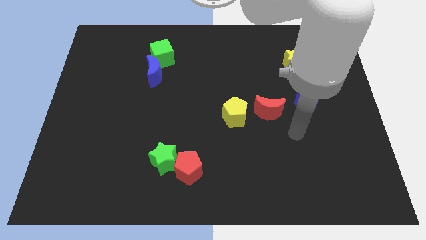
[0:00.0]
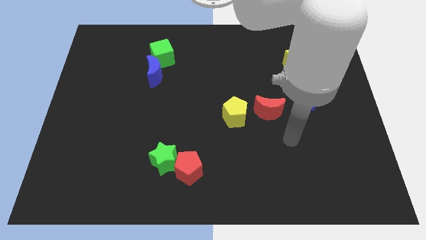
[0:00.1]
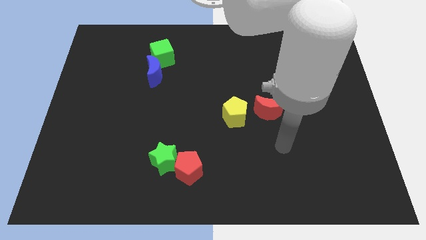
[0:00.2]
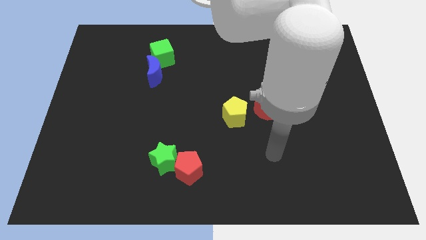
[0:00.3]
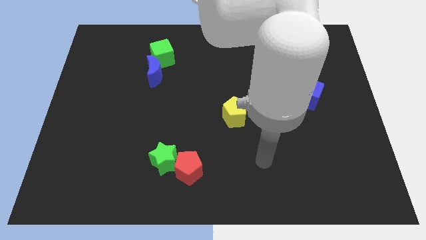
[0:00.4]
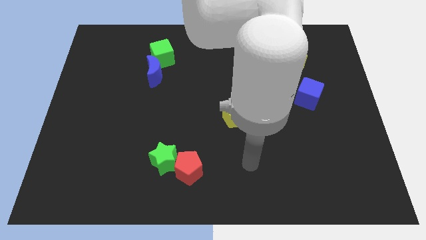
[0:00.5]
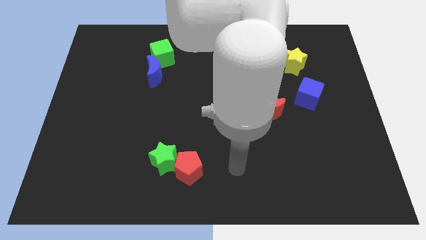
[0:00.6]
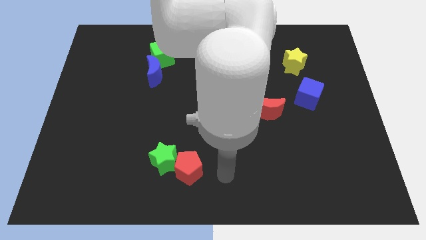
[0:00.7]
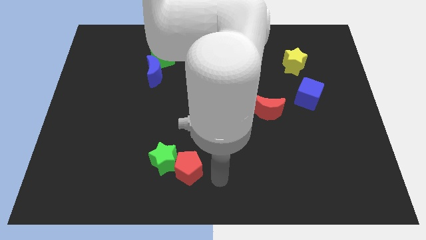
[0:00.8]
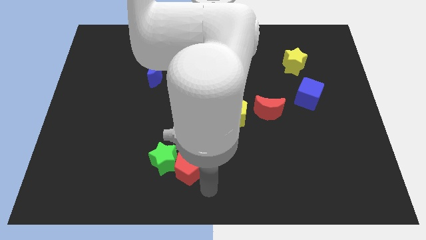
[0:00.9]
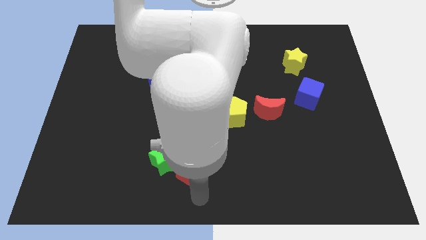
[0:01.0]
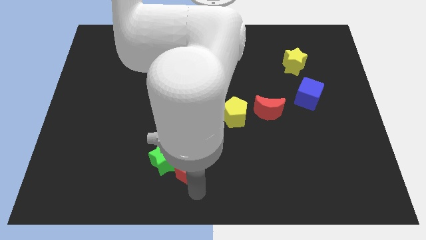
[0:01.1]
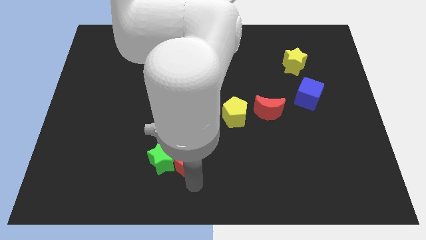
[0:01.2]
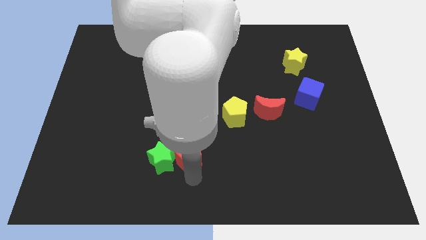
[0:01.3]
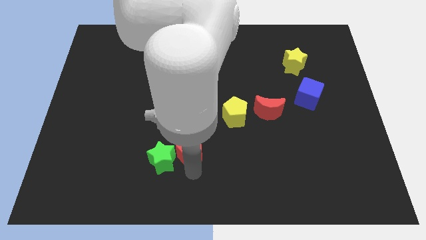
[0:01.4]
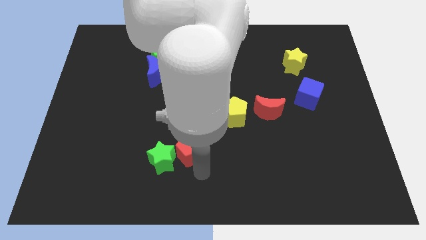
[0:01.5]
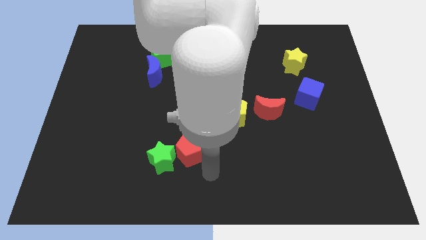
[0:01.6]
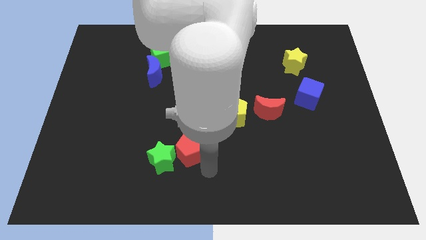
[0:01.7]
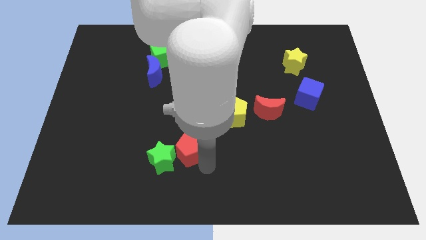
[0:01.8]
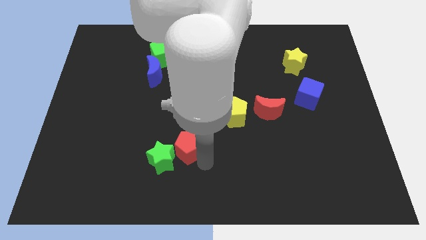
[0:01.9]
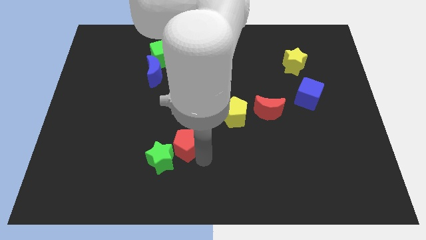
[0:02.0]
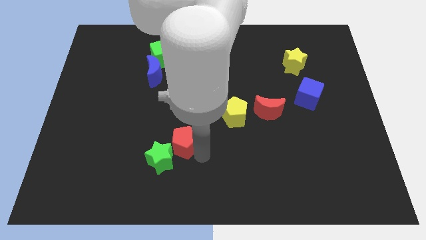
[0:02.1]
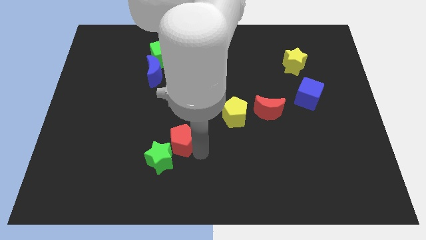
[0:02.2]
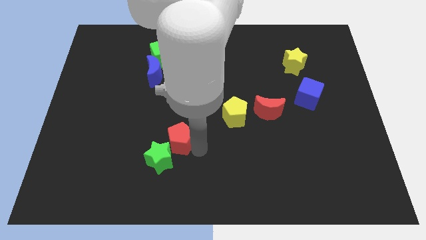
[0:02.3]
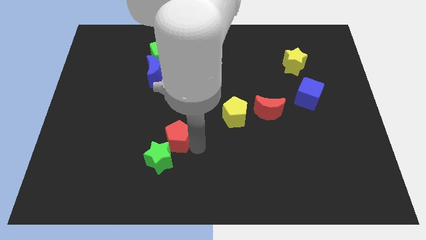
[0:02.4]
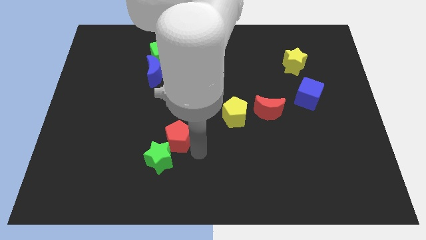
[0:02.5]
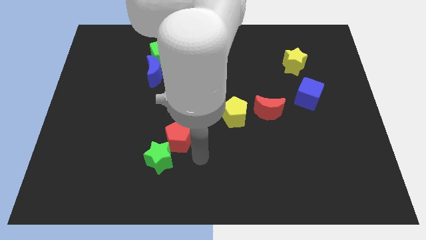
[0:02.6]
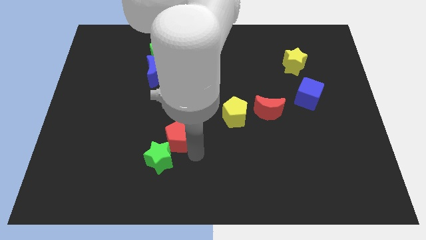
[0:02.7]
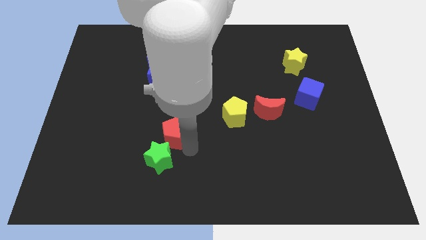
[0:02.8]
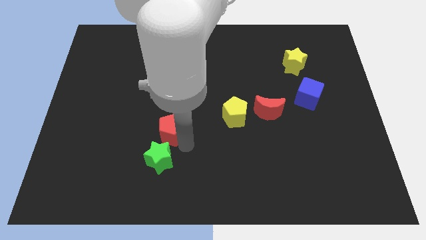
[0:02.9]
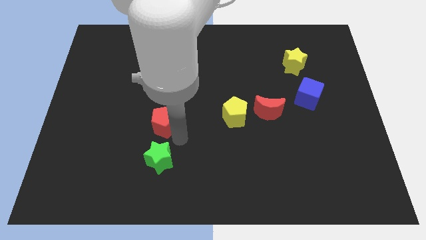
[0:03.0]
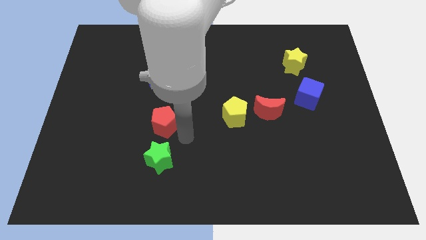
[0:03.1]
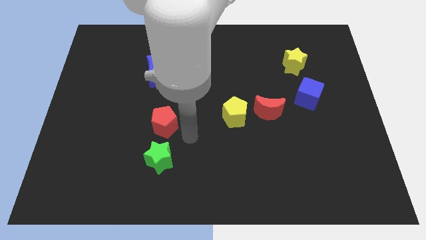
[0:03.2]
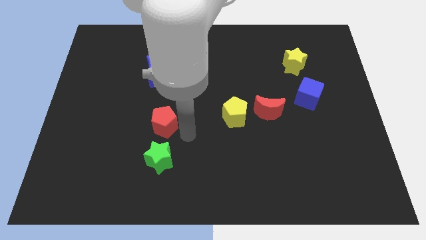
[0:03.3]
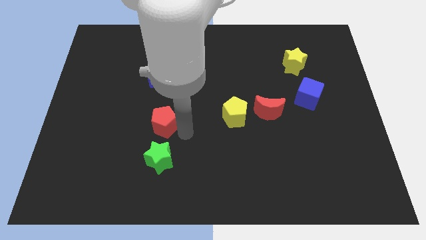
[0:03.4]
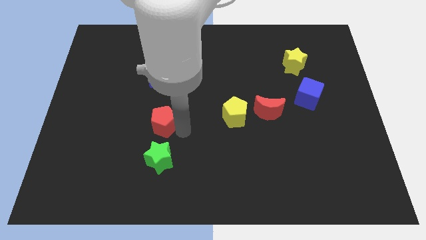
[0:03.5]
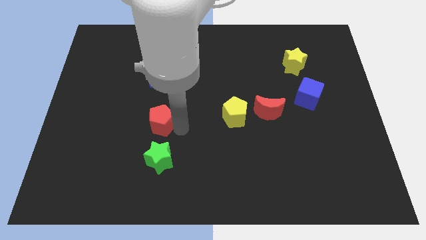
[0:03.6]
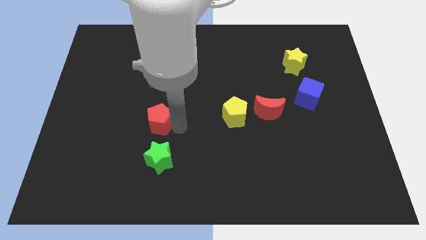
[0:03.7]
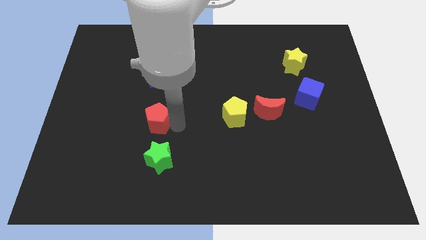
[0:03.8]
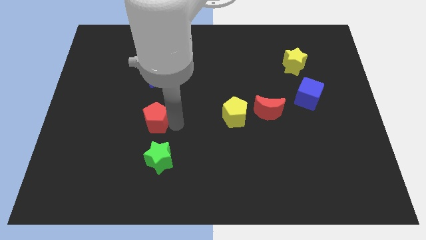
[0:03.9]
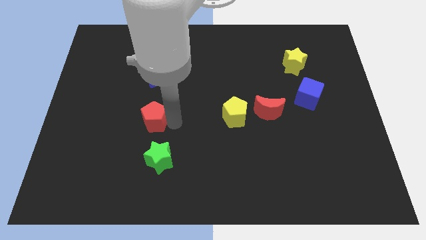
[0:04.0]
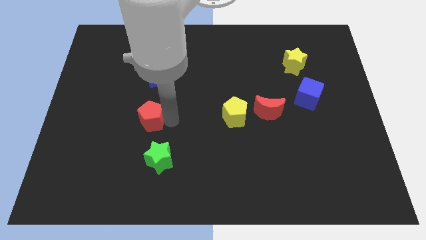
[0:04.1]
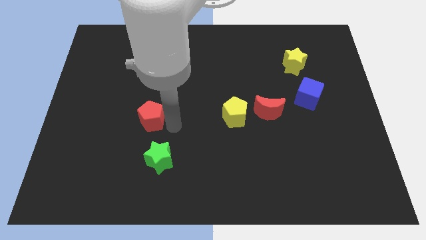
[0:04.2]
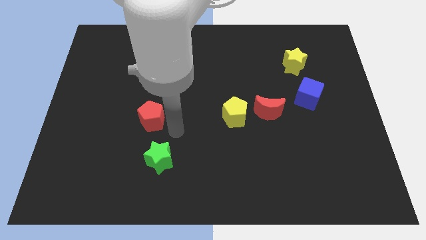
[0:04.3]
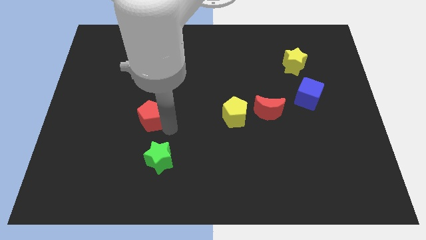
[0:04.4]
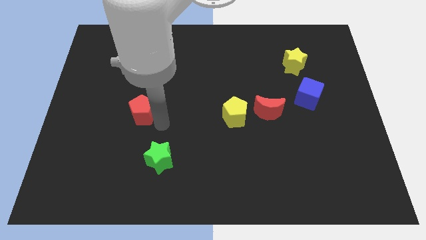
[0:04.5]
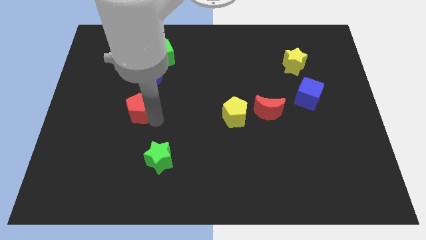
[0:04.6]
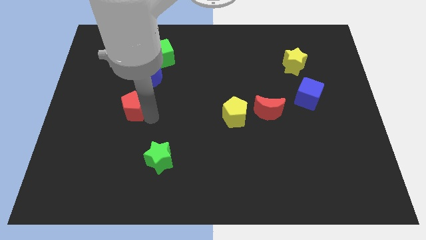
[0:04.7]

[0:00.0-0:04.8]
slide the red pentagon diagonally upwards and left

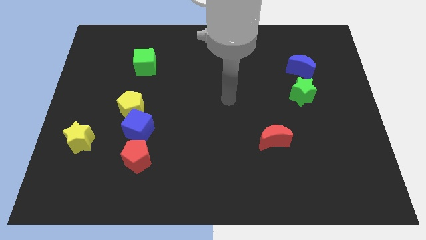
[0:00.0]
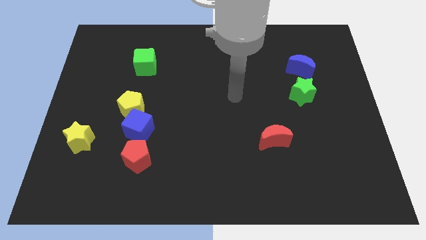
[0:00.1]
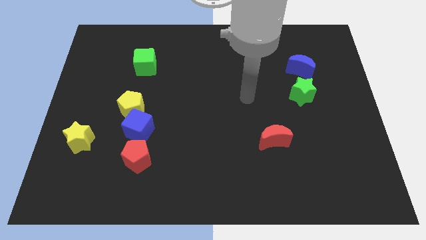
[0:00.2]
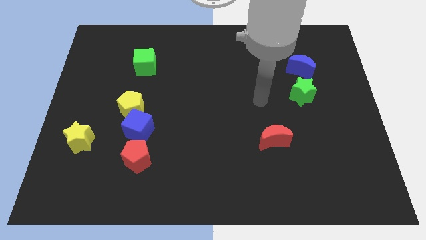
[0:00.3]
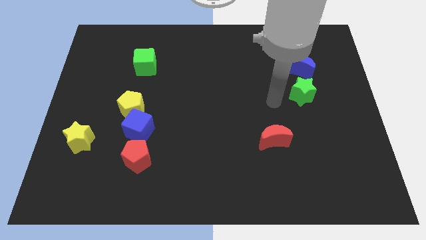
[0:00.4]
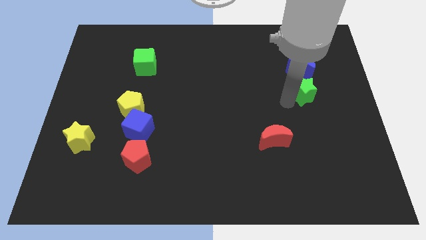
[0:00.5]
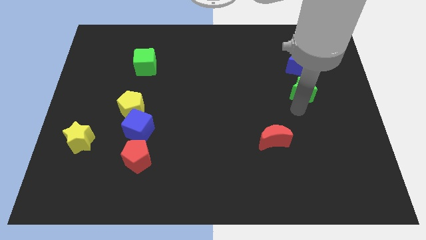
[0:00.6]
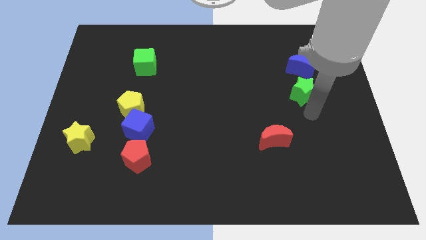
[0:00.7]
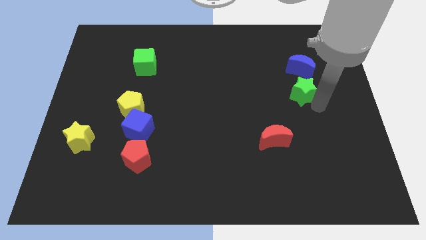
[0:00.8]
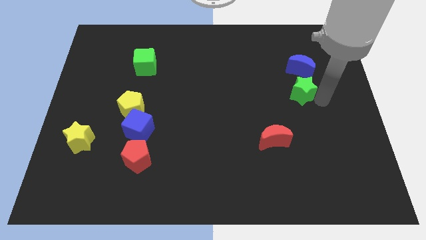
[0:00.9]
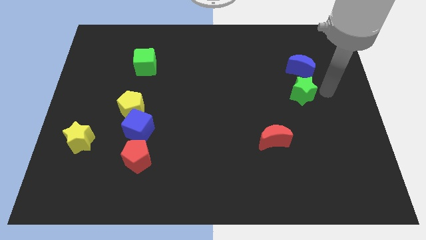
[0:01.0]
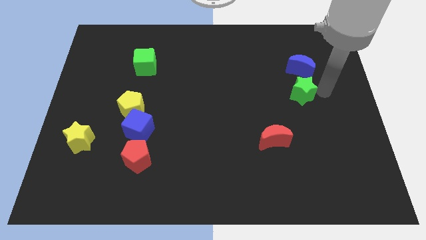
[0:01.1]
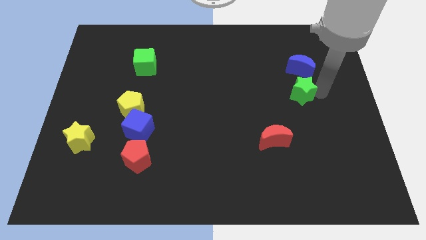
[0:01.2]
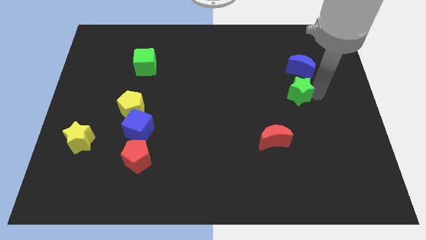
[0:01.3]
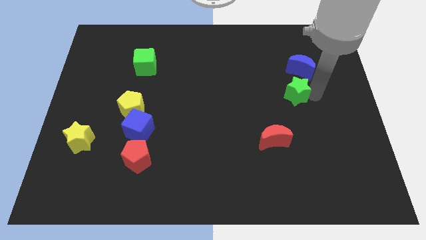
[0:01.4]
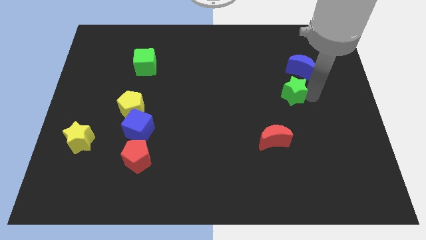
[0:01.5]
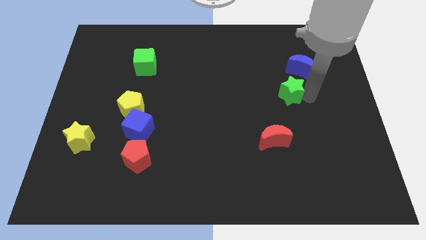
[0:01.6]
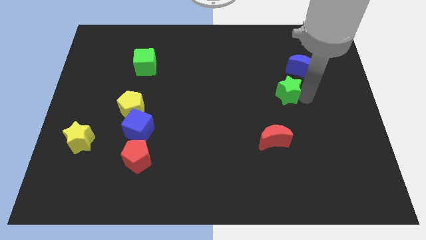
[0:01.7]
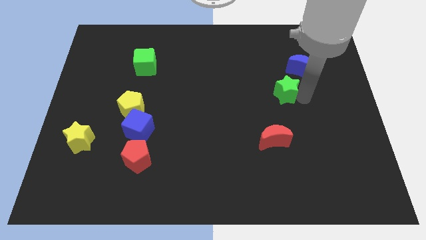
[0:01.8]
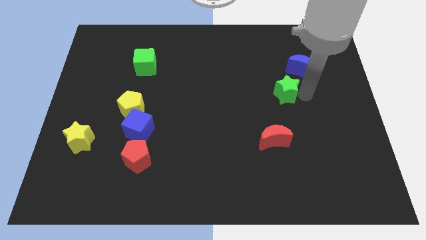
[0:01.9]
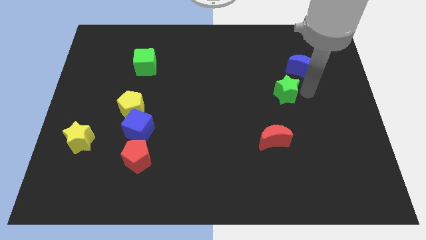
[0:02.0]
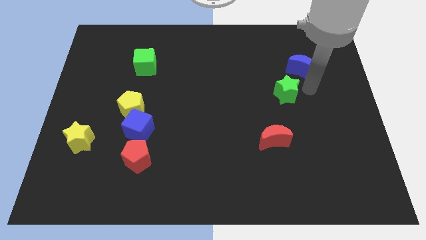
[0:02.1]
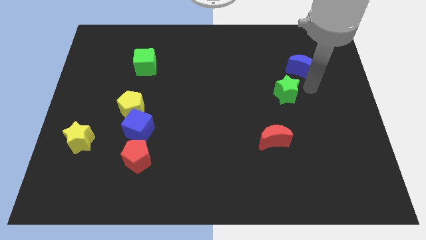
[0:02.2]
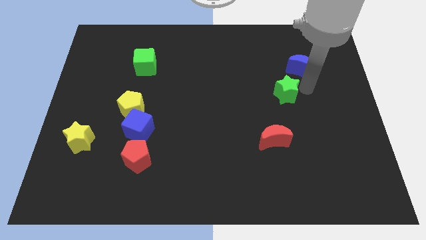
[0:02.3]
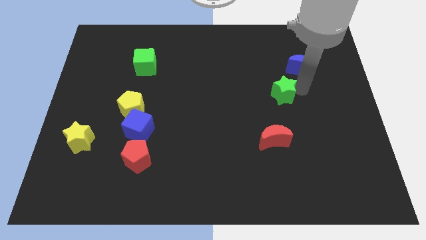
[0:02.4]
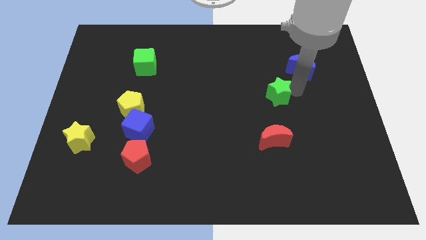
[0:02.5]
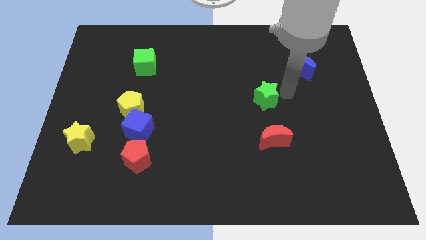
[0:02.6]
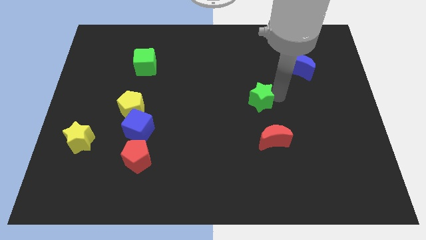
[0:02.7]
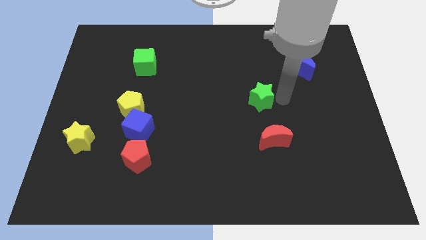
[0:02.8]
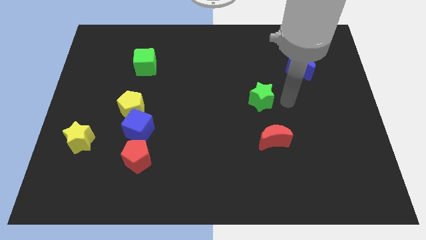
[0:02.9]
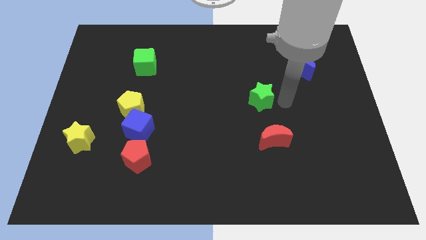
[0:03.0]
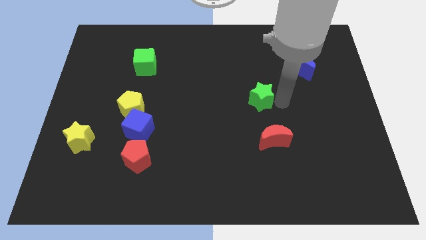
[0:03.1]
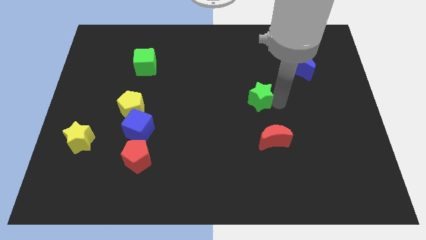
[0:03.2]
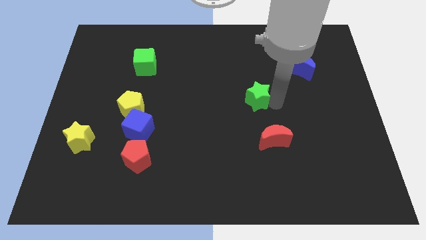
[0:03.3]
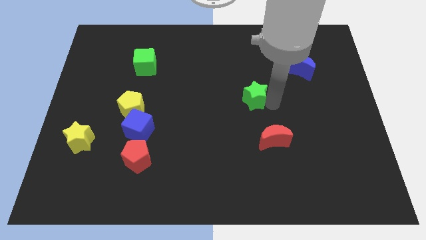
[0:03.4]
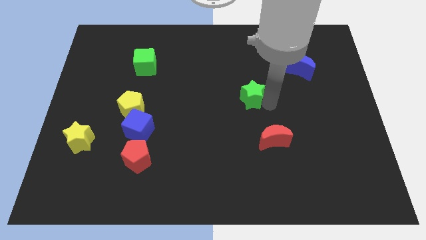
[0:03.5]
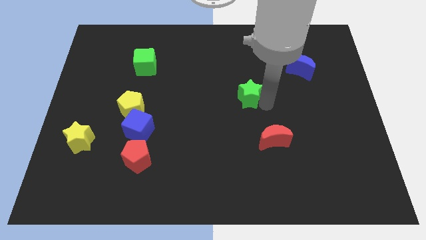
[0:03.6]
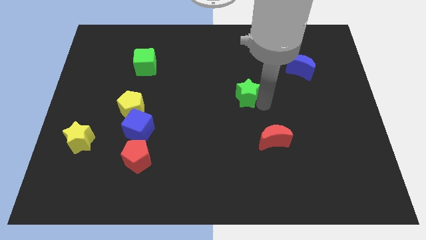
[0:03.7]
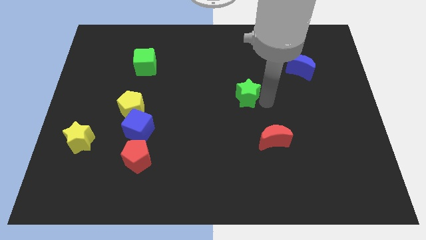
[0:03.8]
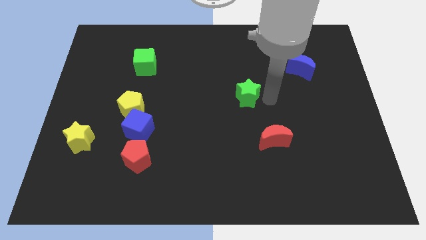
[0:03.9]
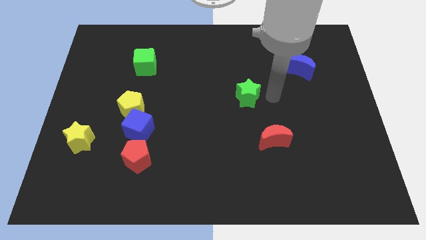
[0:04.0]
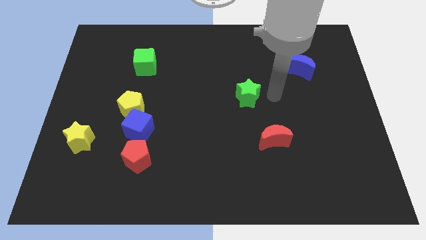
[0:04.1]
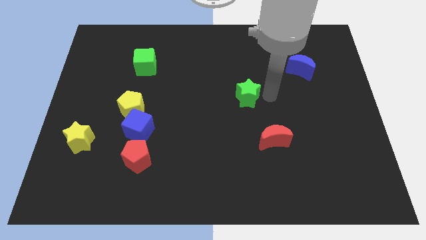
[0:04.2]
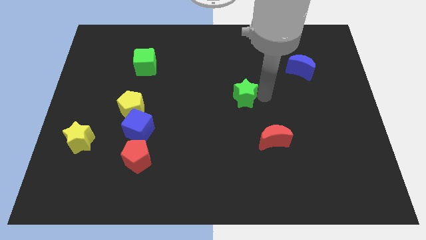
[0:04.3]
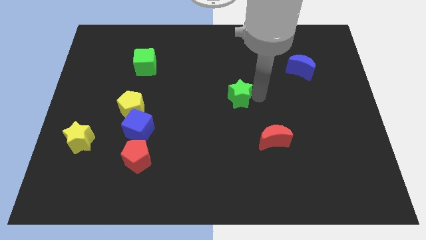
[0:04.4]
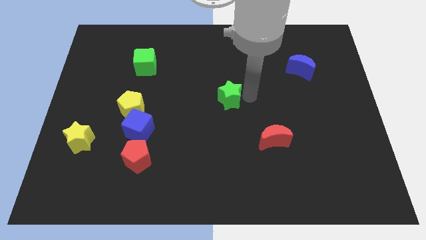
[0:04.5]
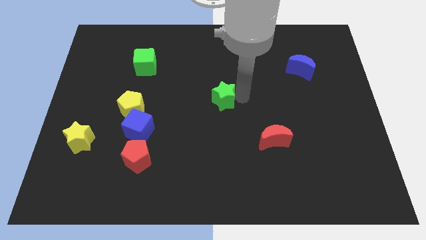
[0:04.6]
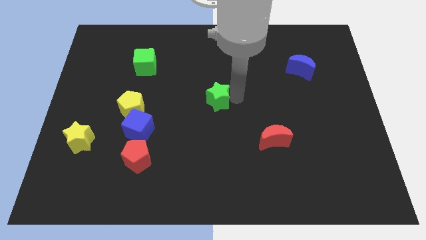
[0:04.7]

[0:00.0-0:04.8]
slide the green star left
